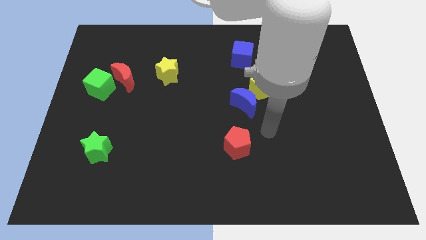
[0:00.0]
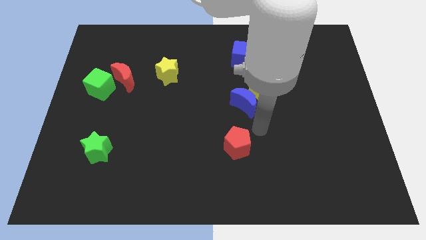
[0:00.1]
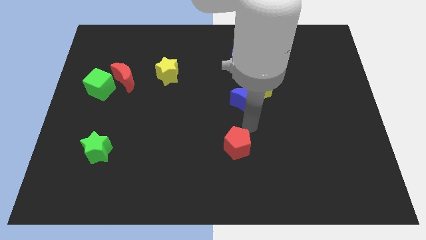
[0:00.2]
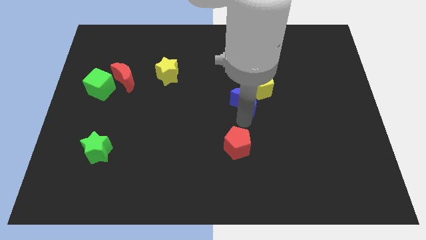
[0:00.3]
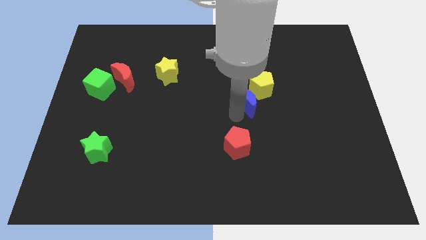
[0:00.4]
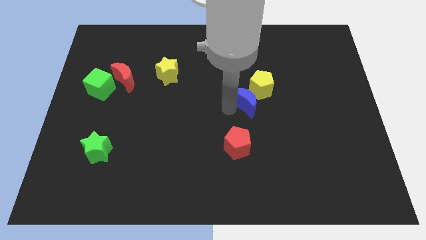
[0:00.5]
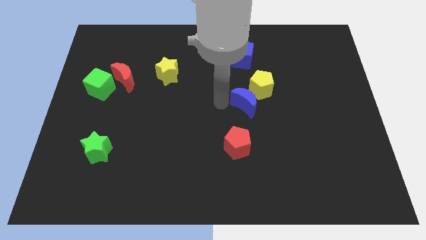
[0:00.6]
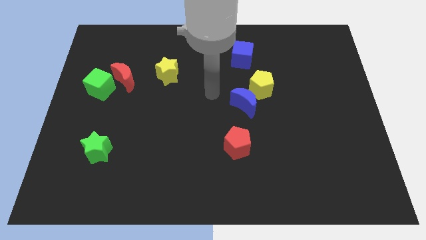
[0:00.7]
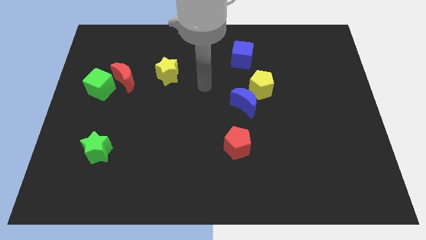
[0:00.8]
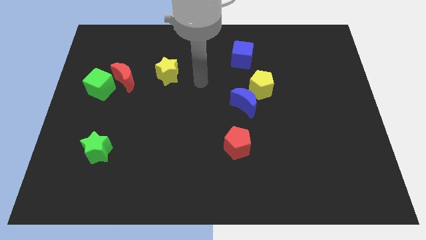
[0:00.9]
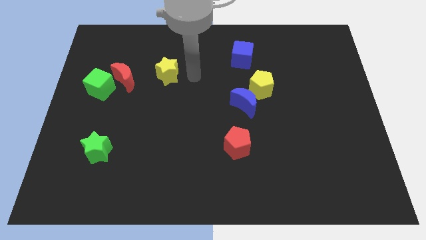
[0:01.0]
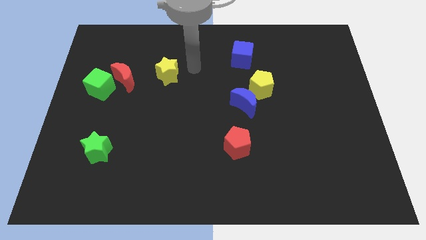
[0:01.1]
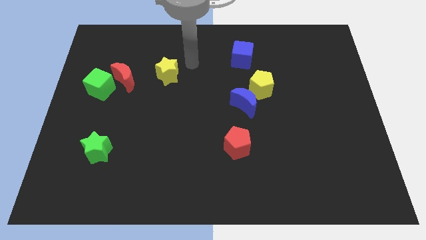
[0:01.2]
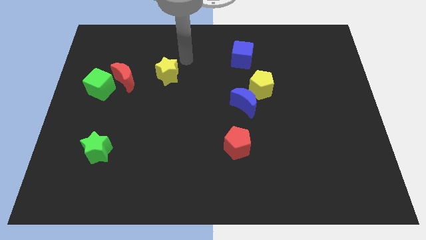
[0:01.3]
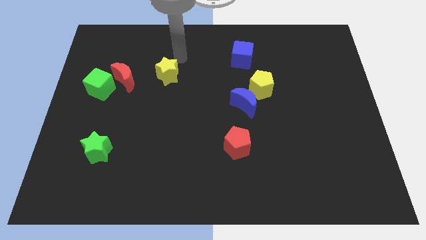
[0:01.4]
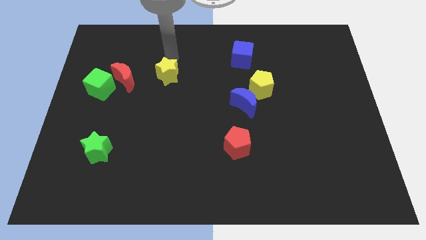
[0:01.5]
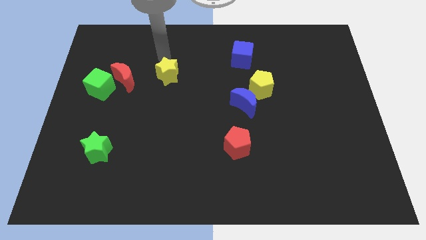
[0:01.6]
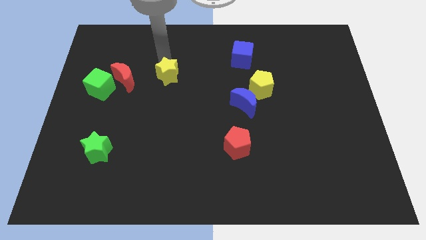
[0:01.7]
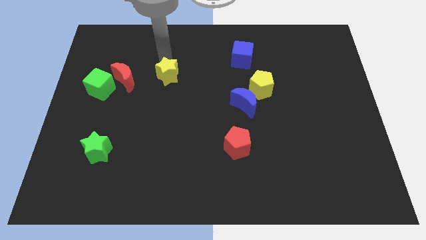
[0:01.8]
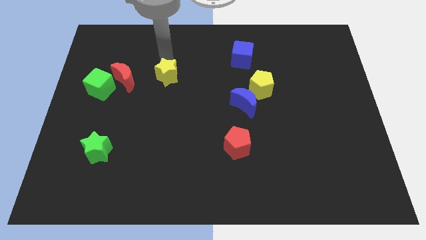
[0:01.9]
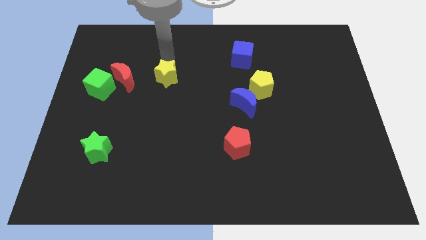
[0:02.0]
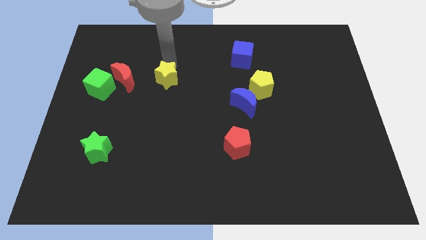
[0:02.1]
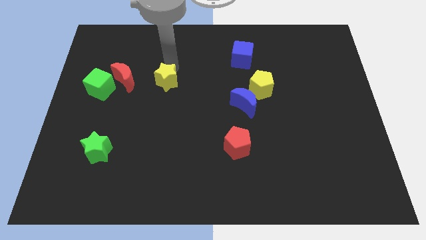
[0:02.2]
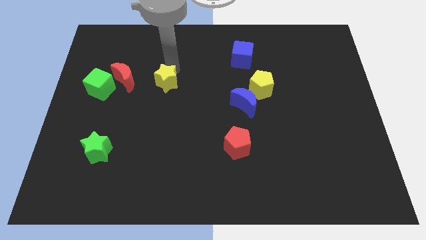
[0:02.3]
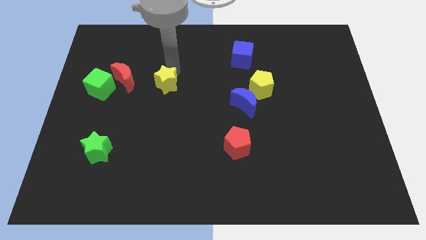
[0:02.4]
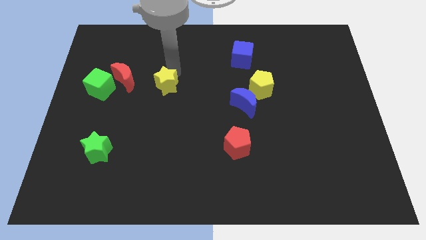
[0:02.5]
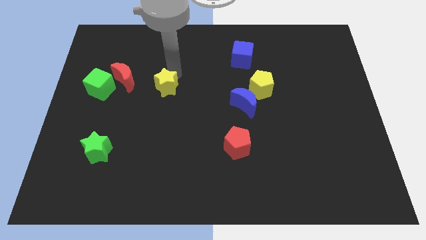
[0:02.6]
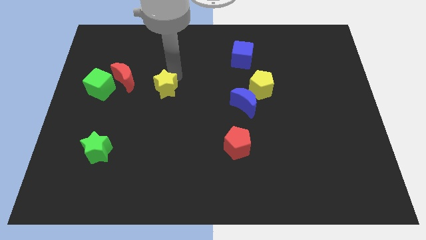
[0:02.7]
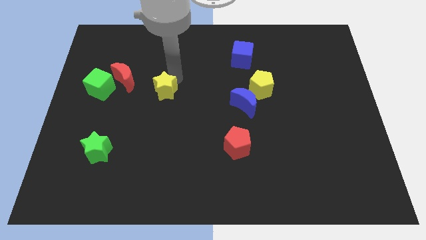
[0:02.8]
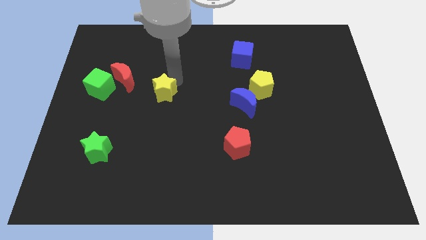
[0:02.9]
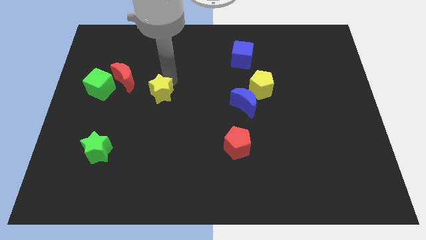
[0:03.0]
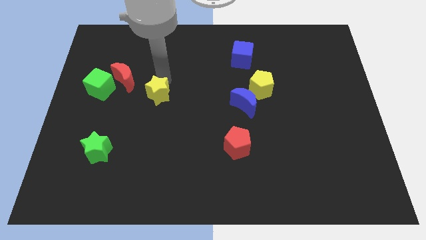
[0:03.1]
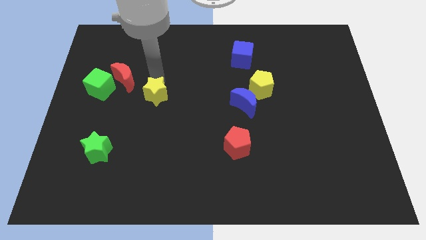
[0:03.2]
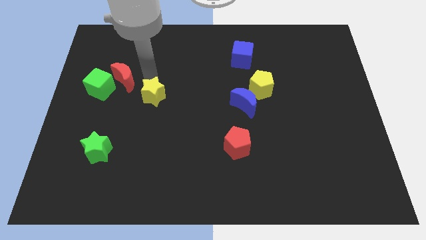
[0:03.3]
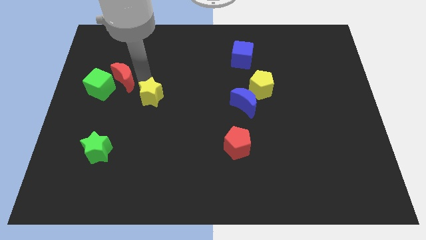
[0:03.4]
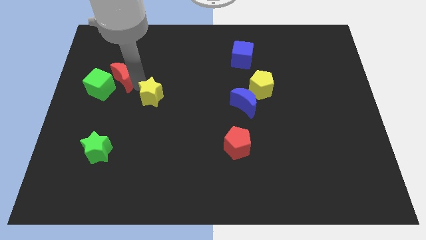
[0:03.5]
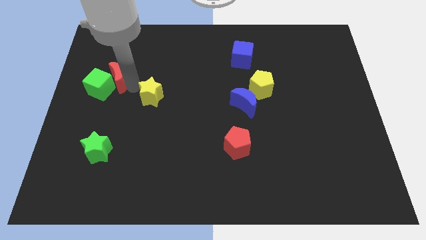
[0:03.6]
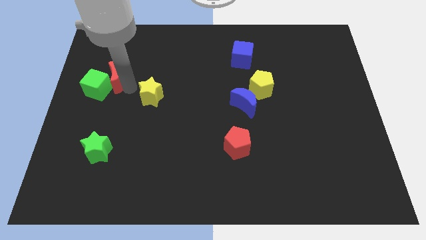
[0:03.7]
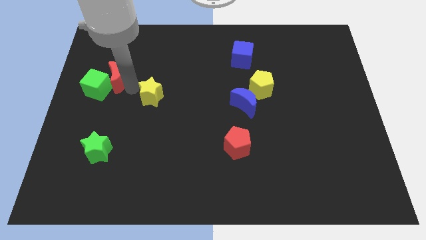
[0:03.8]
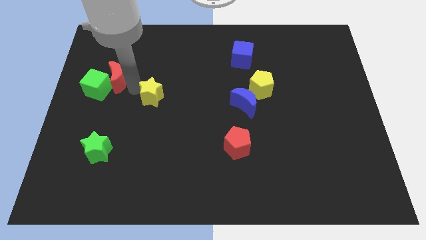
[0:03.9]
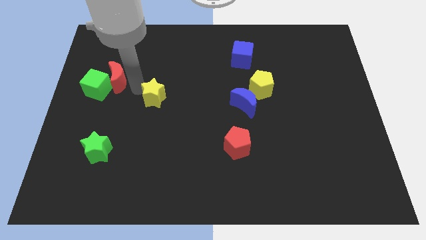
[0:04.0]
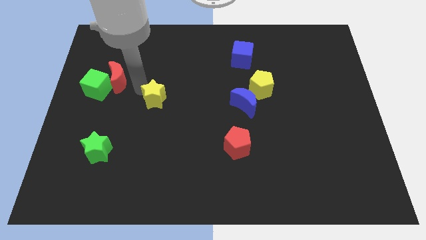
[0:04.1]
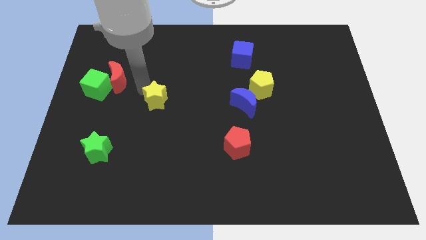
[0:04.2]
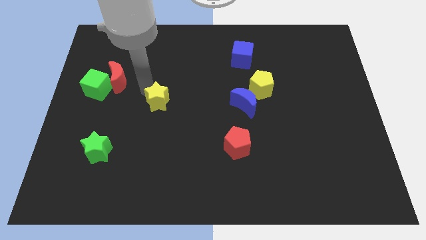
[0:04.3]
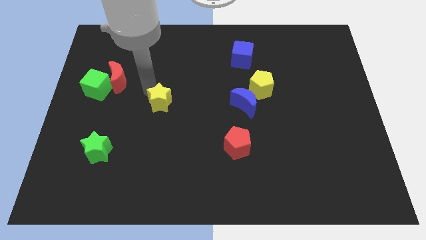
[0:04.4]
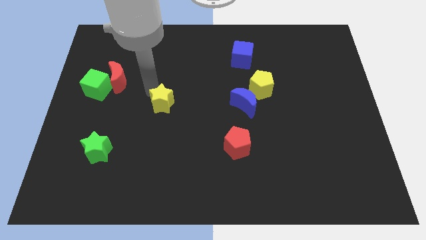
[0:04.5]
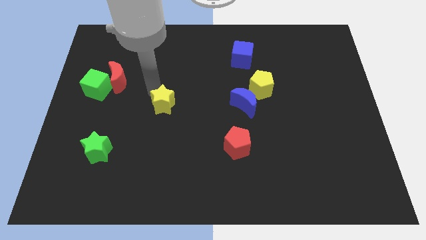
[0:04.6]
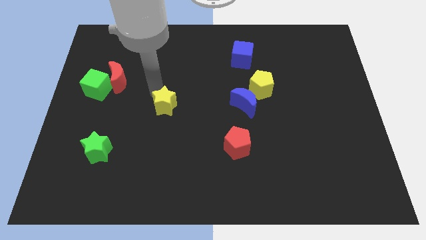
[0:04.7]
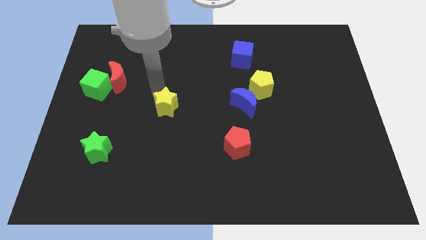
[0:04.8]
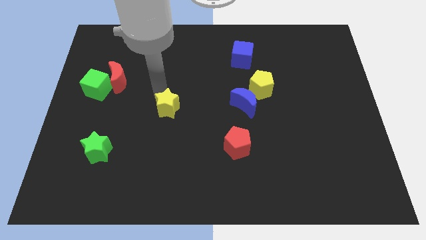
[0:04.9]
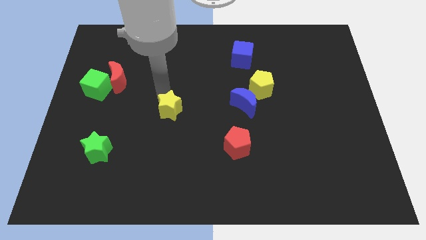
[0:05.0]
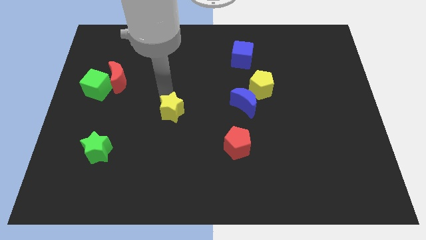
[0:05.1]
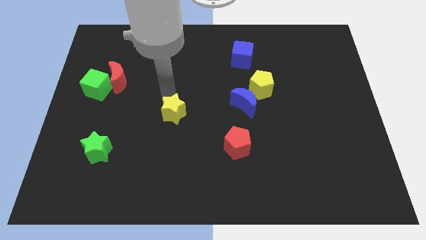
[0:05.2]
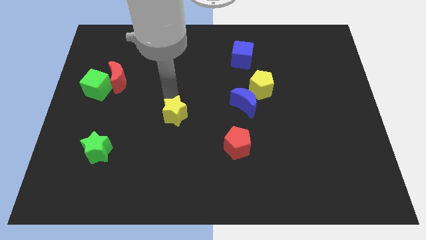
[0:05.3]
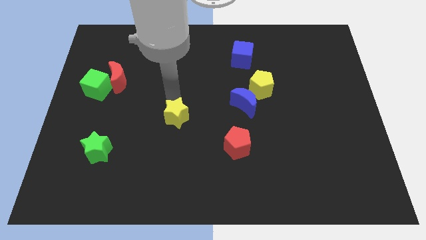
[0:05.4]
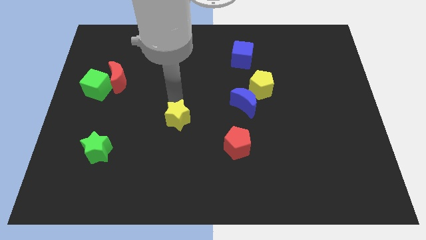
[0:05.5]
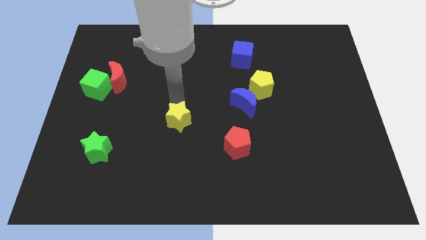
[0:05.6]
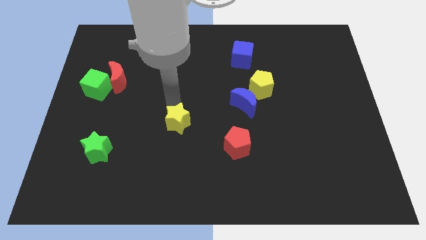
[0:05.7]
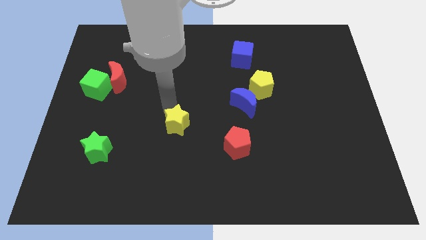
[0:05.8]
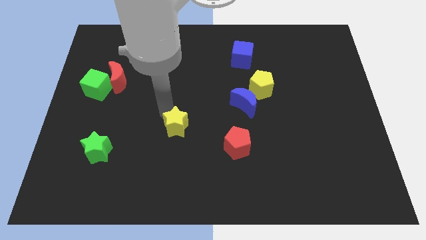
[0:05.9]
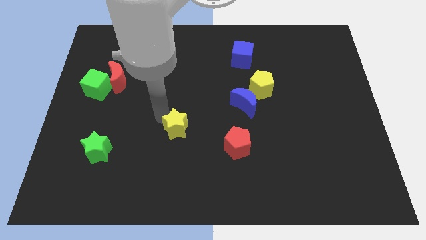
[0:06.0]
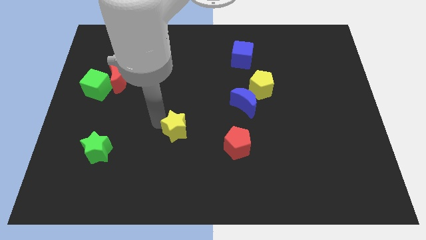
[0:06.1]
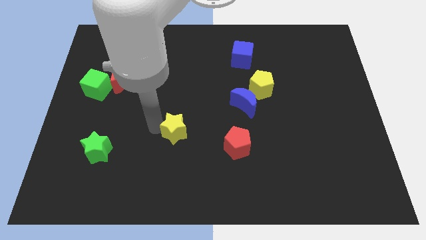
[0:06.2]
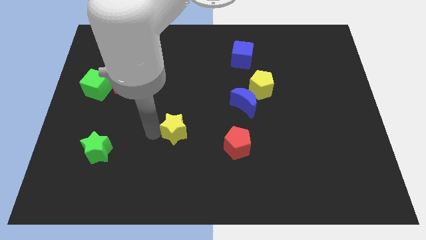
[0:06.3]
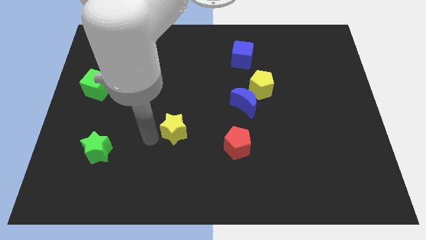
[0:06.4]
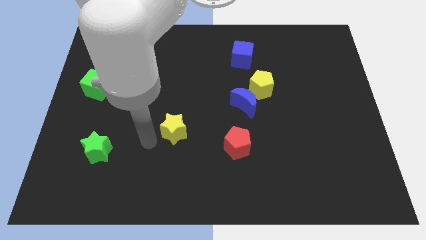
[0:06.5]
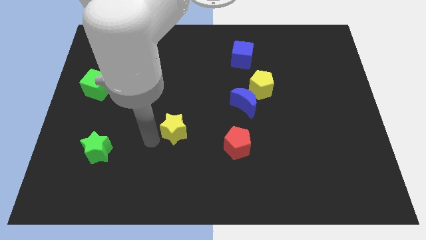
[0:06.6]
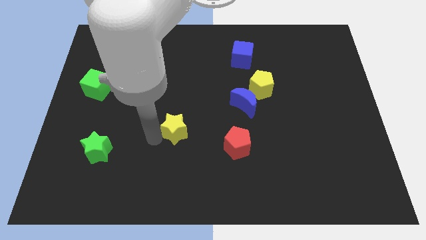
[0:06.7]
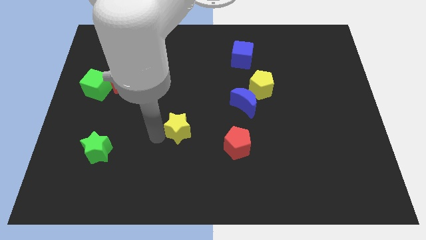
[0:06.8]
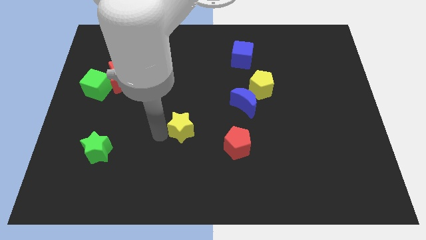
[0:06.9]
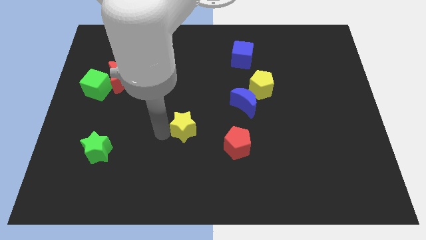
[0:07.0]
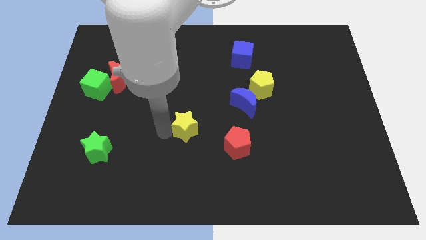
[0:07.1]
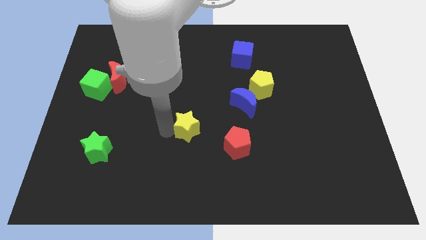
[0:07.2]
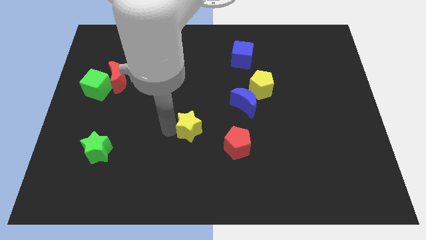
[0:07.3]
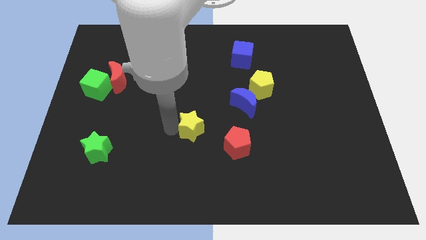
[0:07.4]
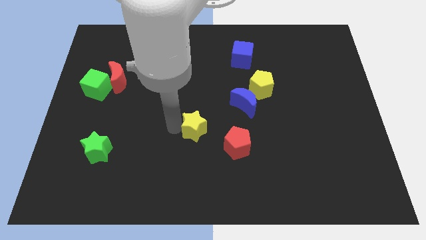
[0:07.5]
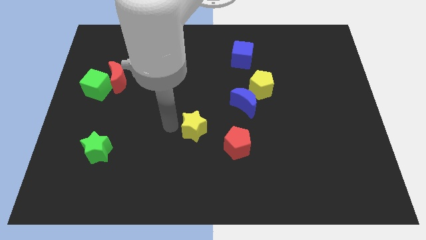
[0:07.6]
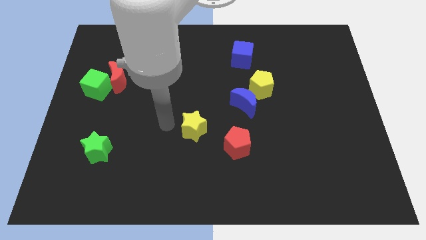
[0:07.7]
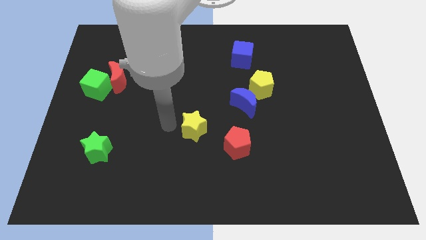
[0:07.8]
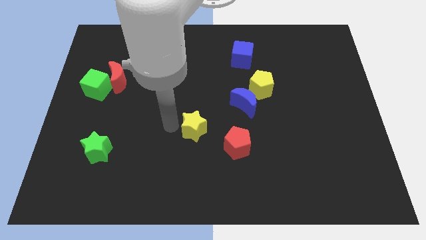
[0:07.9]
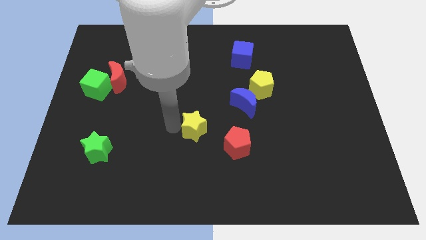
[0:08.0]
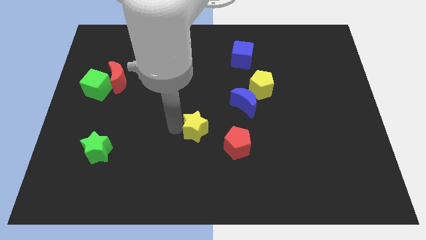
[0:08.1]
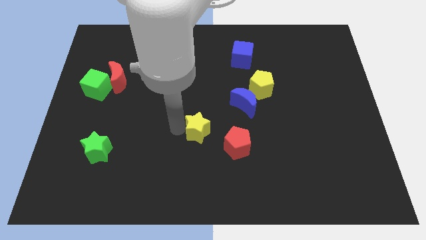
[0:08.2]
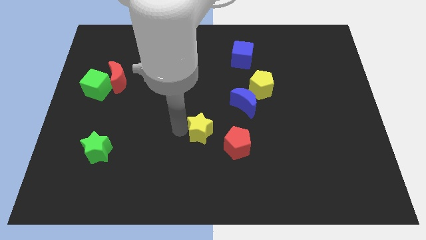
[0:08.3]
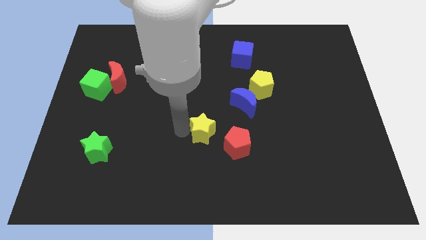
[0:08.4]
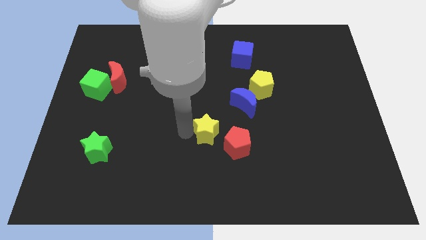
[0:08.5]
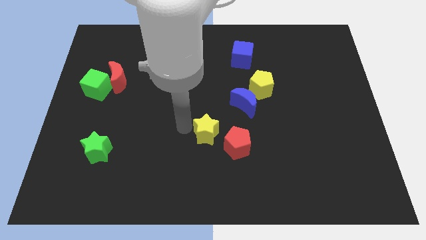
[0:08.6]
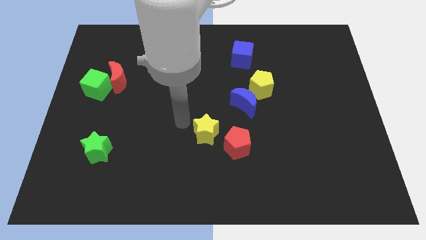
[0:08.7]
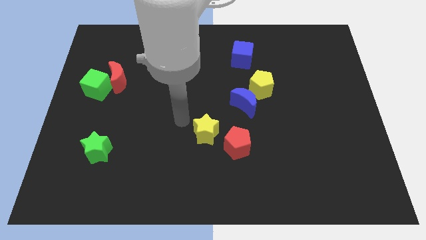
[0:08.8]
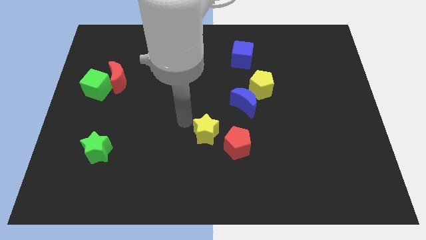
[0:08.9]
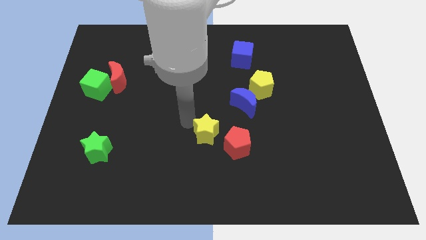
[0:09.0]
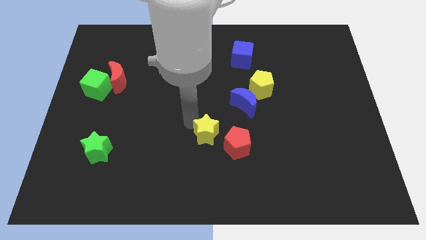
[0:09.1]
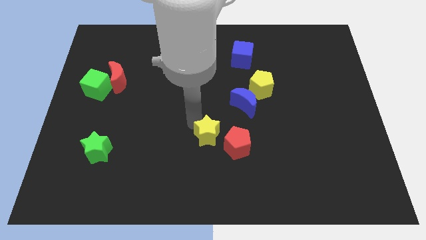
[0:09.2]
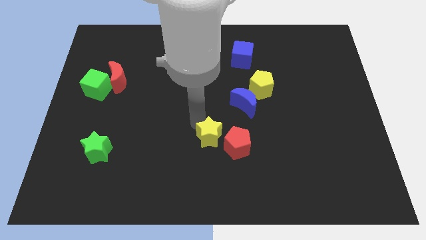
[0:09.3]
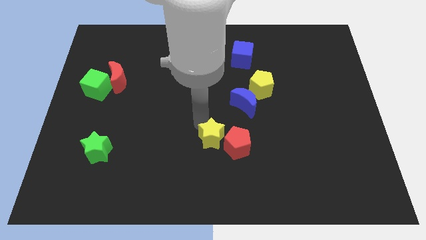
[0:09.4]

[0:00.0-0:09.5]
slide the yellow star close to the red pentagon
